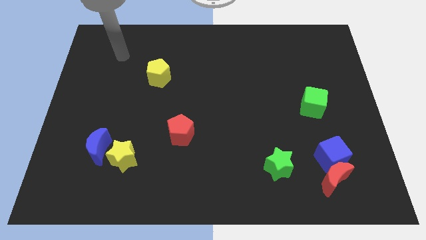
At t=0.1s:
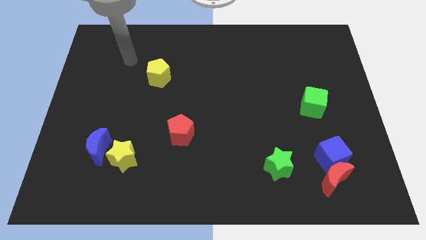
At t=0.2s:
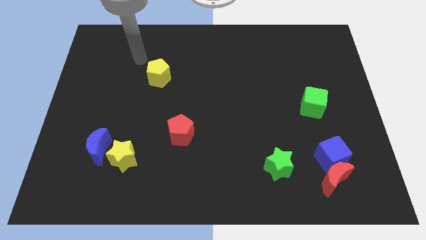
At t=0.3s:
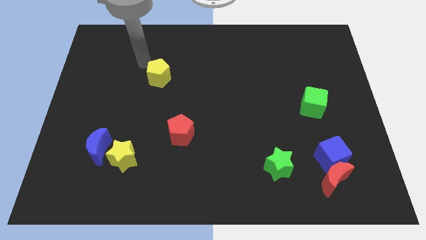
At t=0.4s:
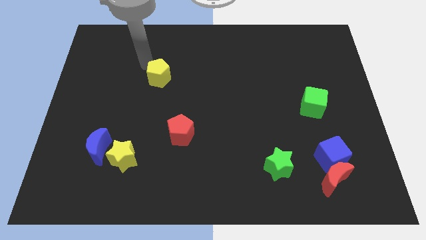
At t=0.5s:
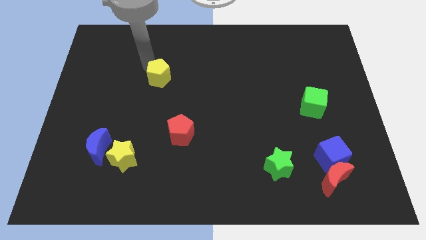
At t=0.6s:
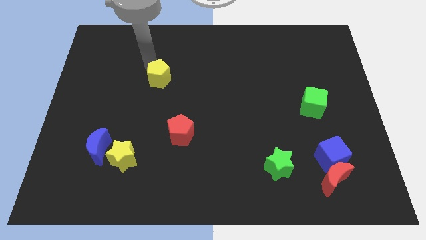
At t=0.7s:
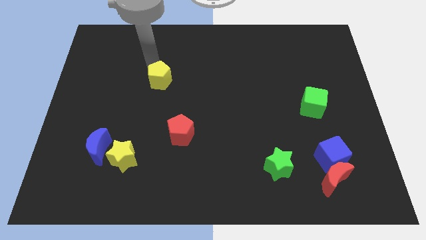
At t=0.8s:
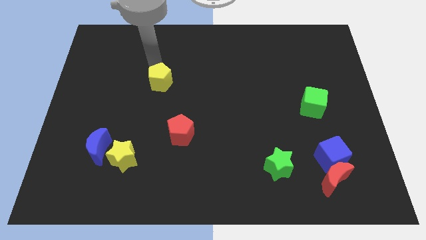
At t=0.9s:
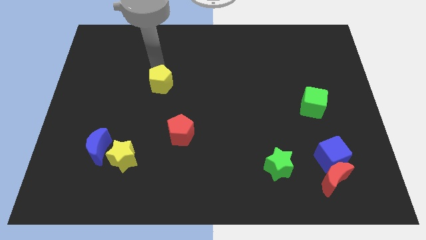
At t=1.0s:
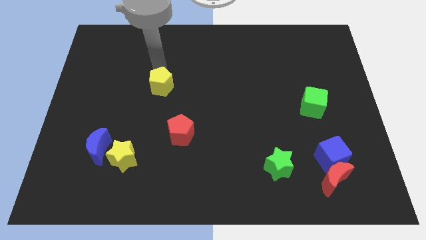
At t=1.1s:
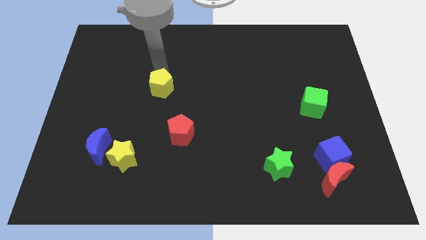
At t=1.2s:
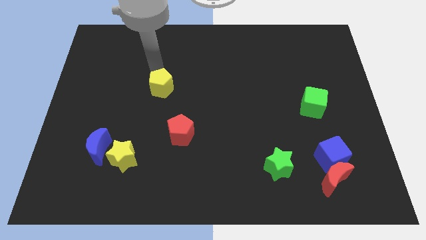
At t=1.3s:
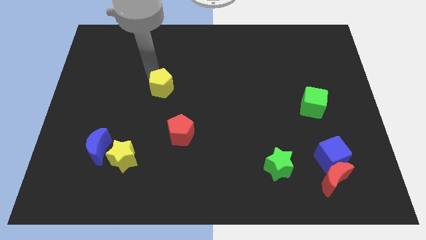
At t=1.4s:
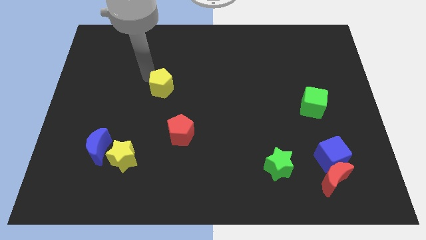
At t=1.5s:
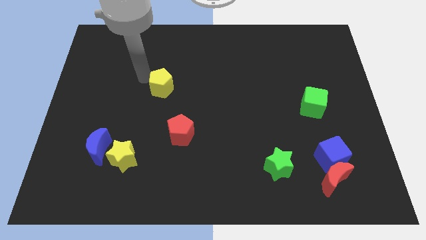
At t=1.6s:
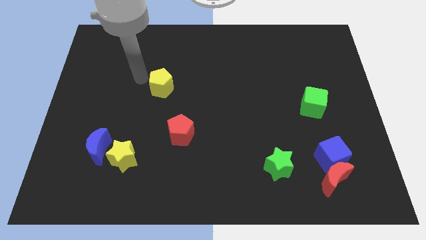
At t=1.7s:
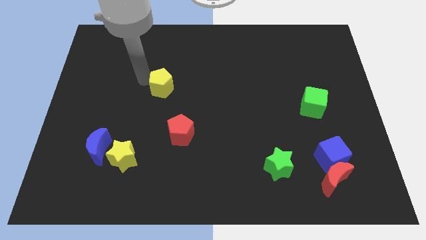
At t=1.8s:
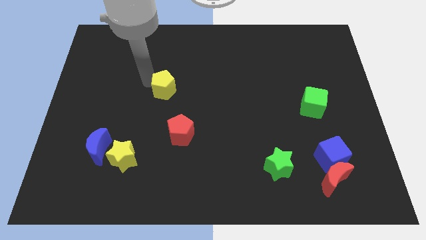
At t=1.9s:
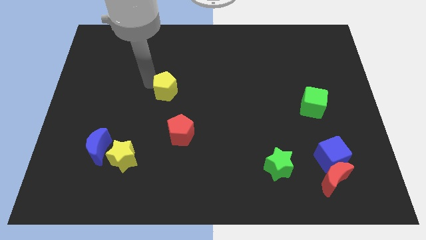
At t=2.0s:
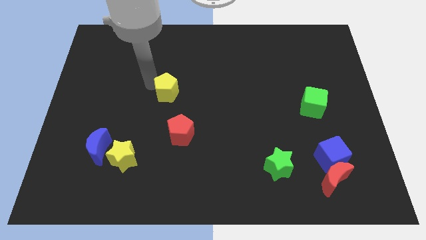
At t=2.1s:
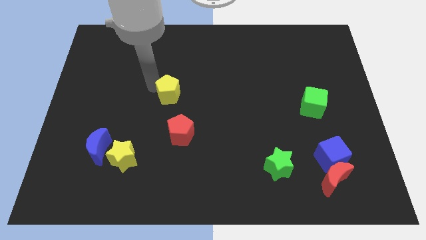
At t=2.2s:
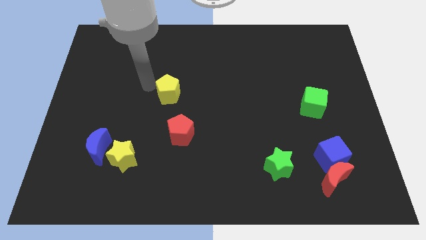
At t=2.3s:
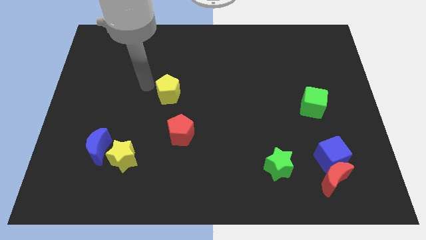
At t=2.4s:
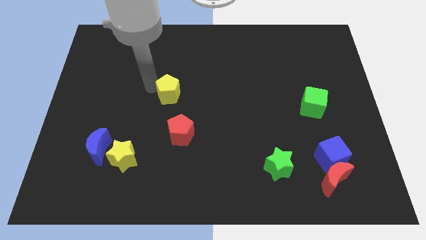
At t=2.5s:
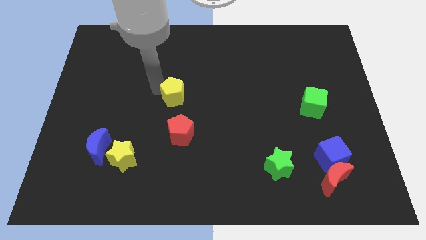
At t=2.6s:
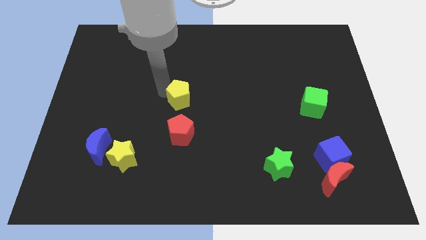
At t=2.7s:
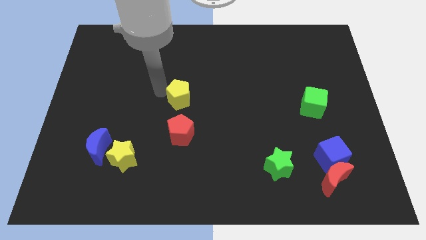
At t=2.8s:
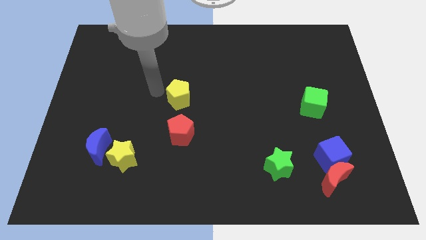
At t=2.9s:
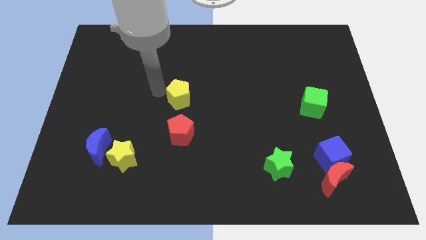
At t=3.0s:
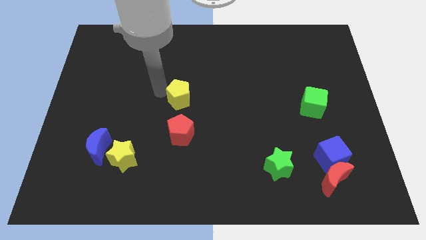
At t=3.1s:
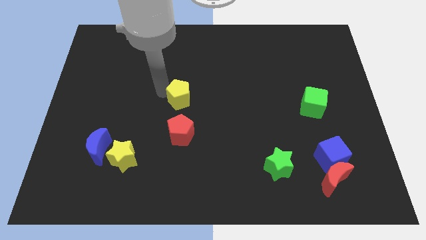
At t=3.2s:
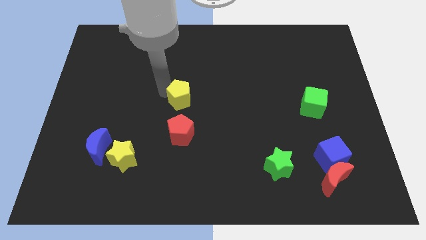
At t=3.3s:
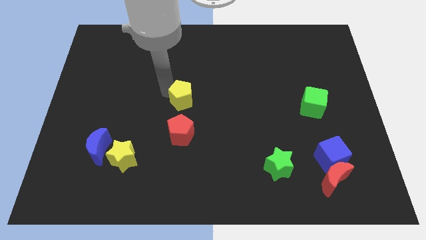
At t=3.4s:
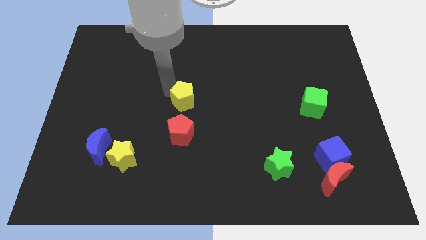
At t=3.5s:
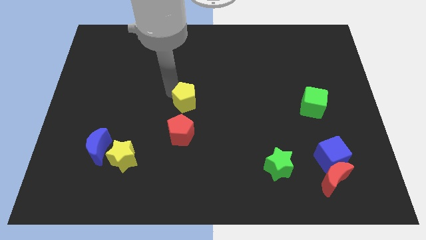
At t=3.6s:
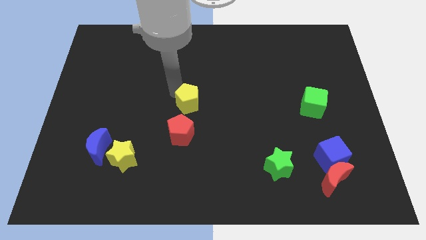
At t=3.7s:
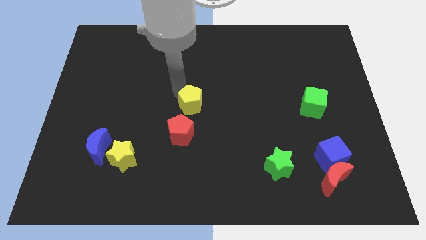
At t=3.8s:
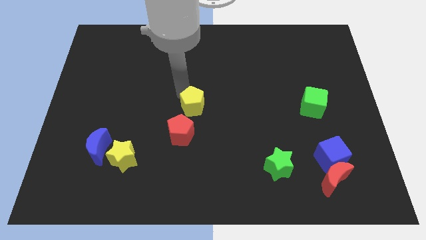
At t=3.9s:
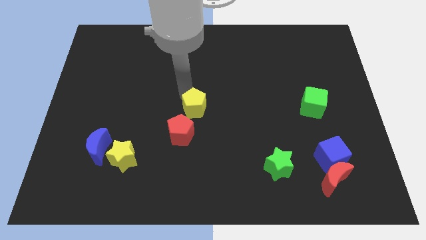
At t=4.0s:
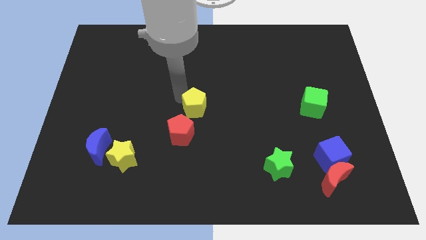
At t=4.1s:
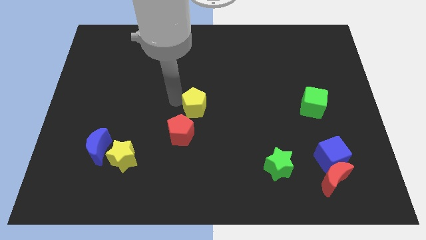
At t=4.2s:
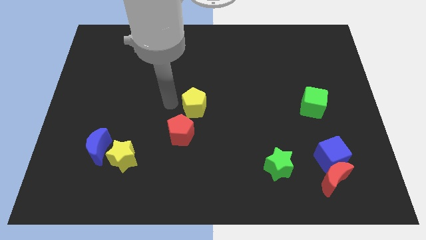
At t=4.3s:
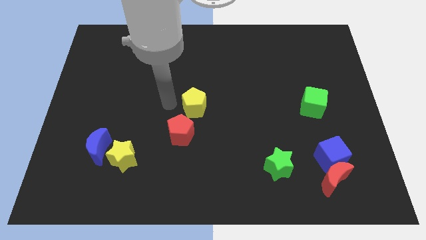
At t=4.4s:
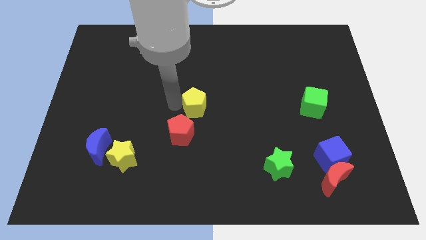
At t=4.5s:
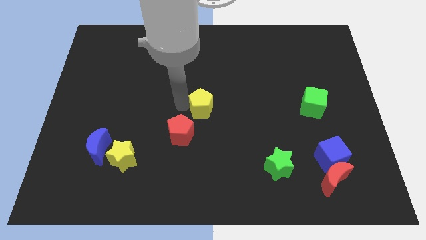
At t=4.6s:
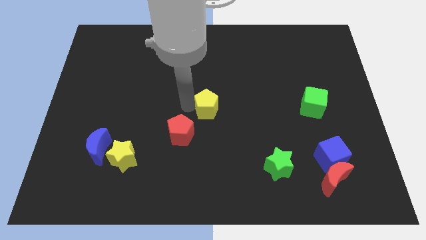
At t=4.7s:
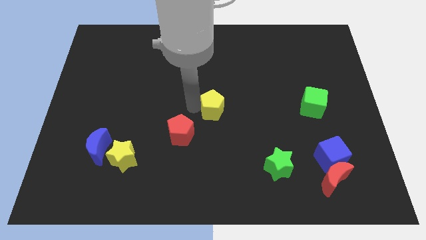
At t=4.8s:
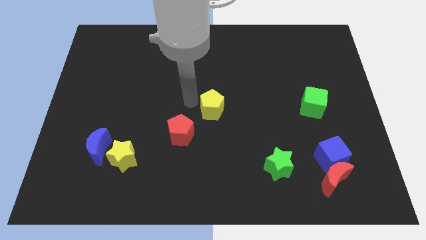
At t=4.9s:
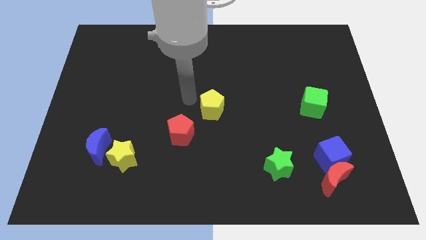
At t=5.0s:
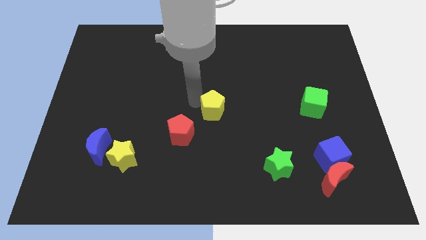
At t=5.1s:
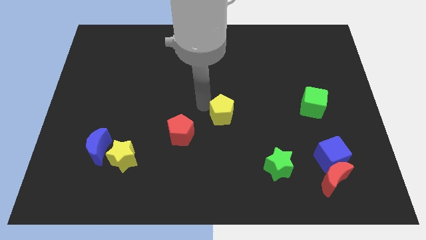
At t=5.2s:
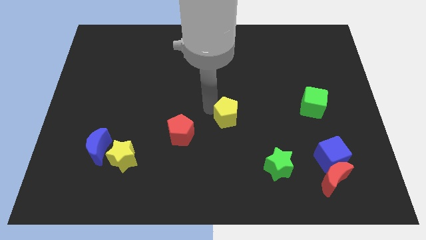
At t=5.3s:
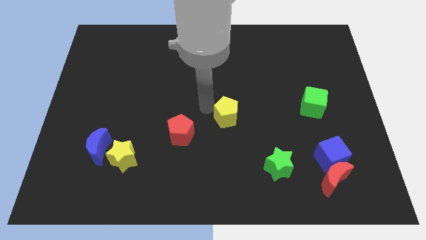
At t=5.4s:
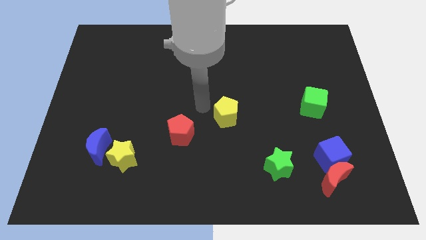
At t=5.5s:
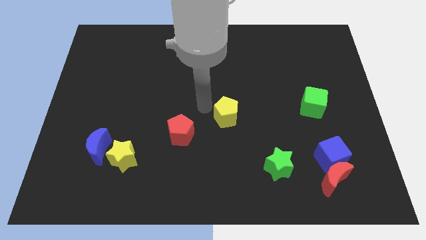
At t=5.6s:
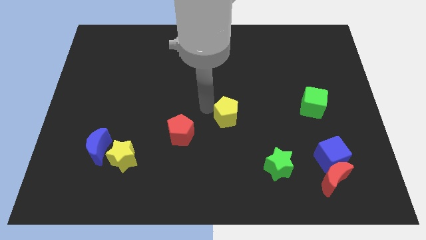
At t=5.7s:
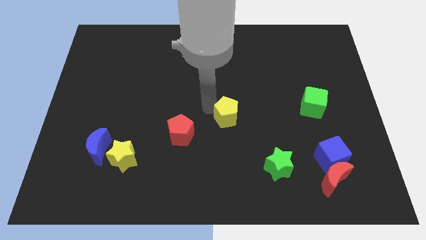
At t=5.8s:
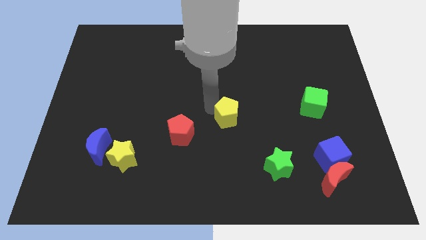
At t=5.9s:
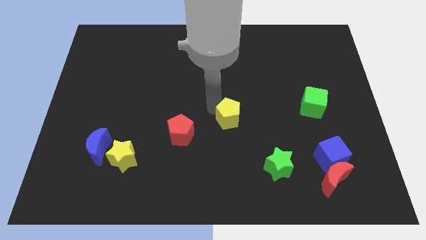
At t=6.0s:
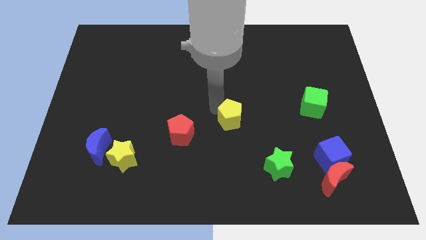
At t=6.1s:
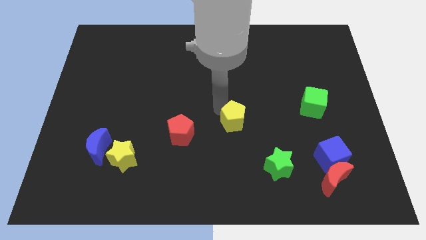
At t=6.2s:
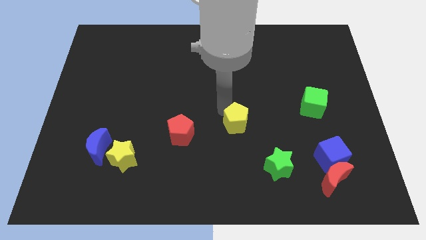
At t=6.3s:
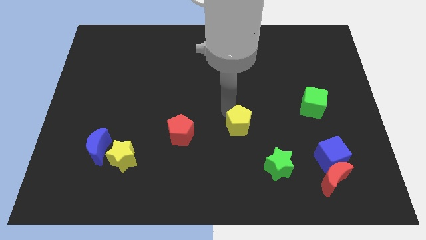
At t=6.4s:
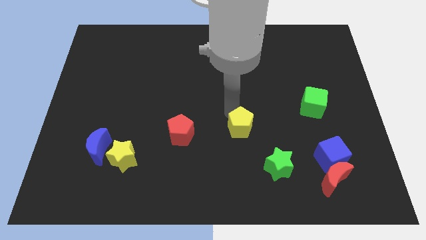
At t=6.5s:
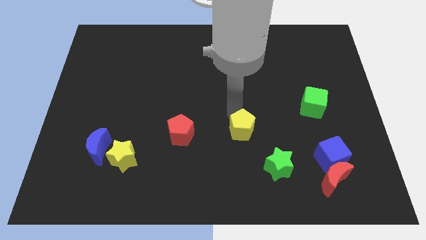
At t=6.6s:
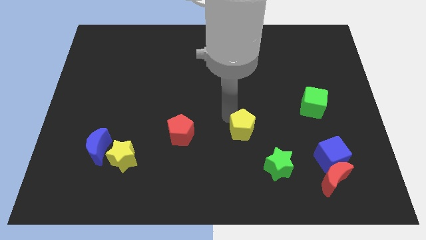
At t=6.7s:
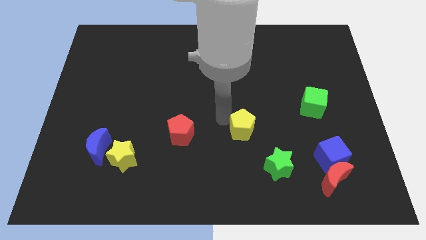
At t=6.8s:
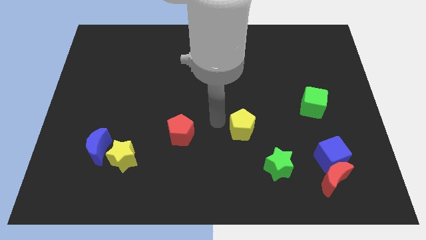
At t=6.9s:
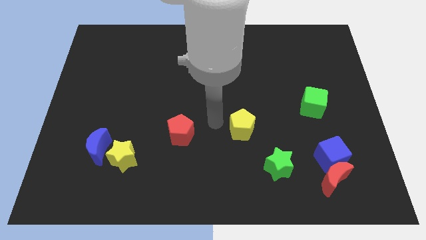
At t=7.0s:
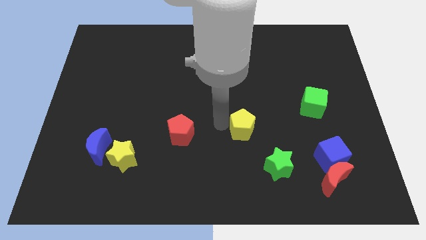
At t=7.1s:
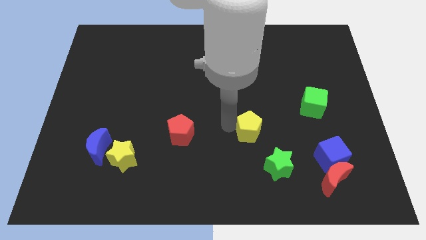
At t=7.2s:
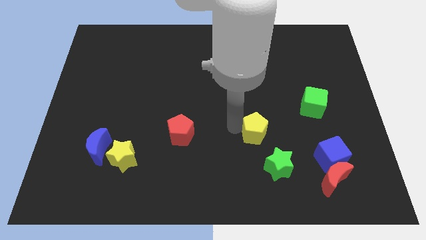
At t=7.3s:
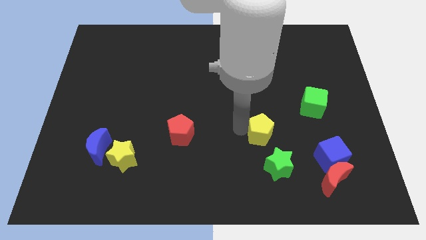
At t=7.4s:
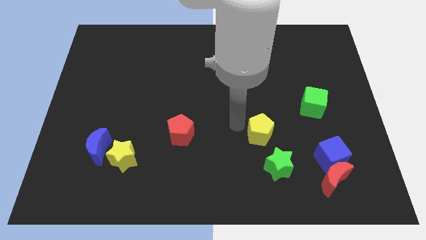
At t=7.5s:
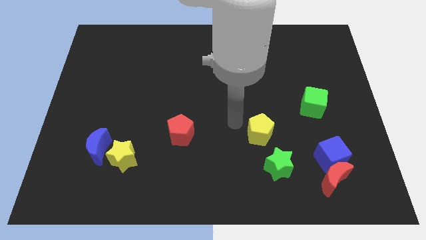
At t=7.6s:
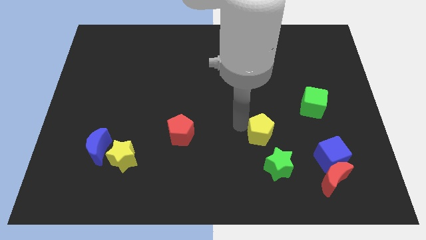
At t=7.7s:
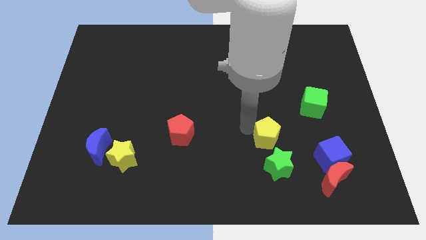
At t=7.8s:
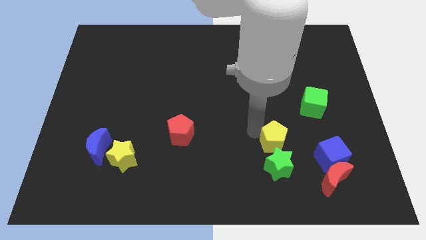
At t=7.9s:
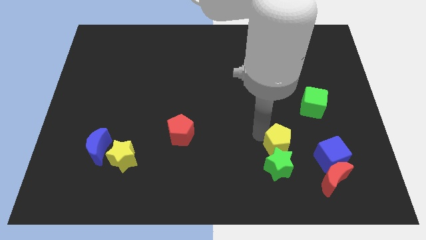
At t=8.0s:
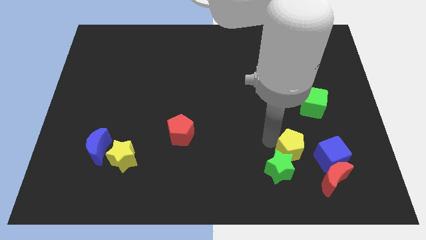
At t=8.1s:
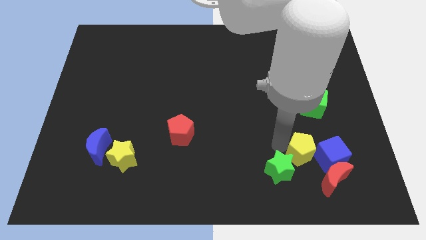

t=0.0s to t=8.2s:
move the yellow pentagon next to the blue cube
